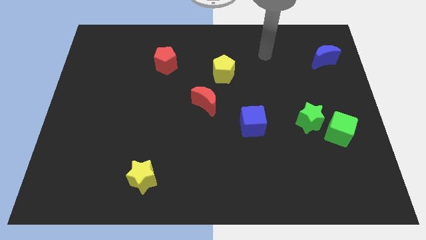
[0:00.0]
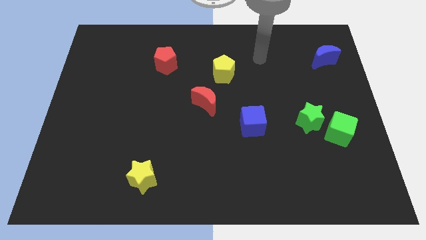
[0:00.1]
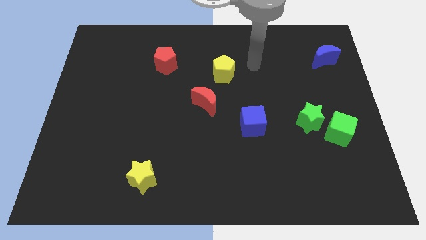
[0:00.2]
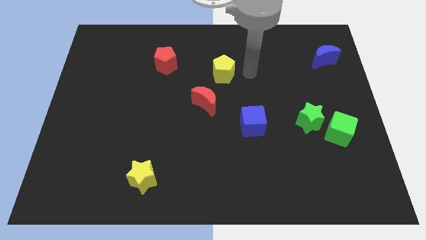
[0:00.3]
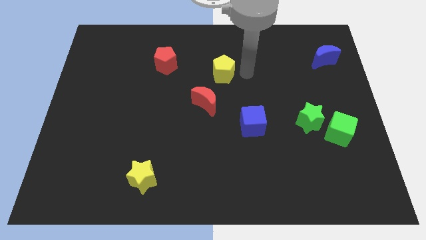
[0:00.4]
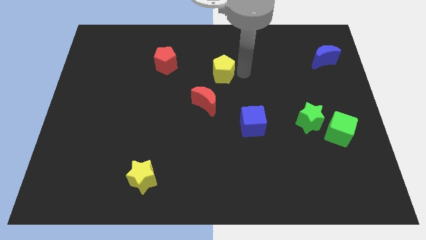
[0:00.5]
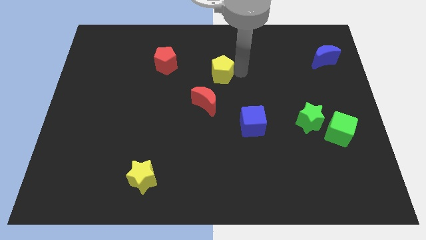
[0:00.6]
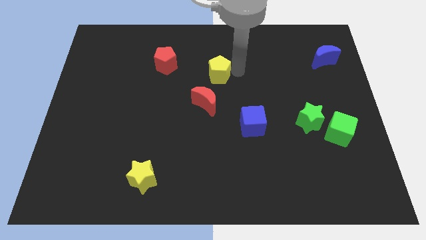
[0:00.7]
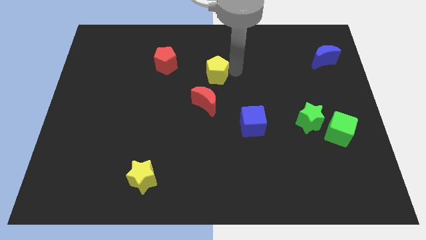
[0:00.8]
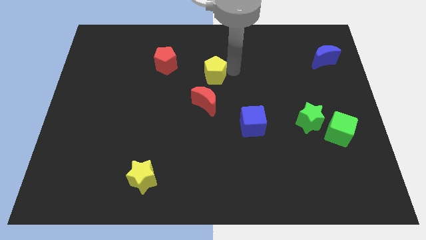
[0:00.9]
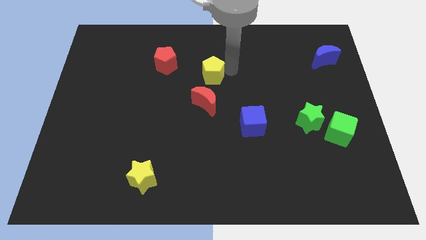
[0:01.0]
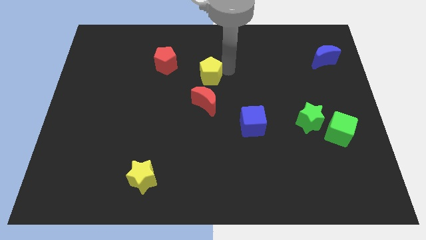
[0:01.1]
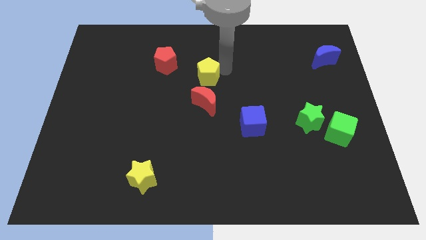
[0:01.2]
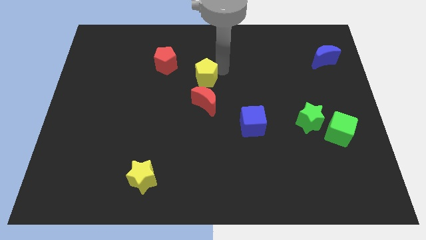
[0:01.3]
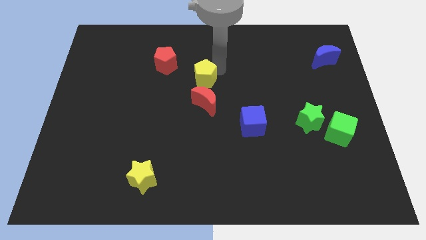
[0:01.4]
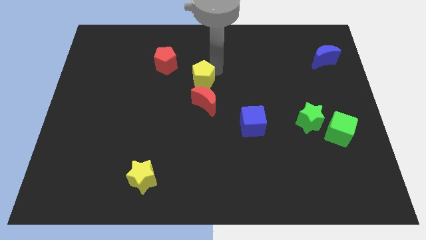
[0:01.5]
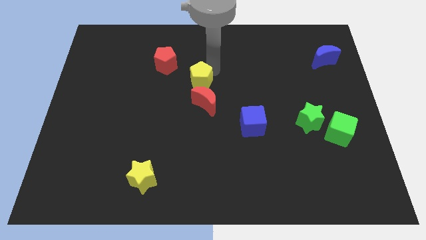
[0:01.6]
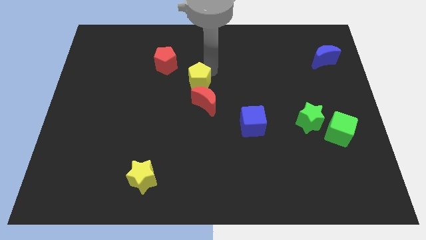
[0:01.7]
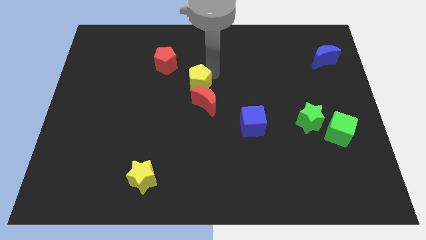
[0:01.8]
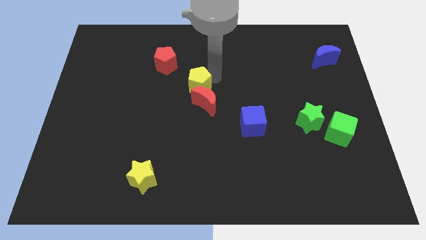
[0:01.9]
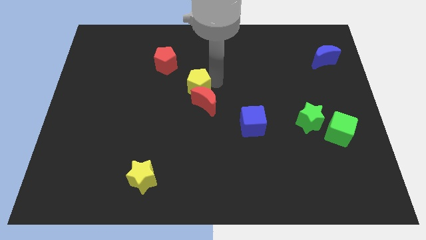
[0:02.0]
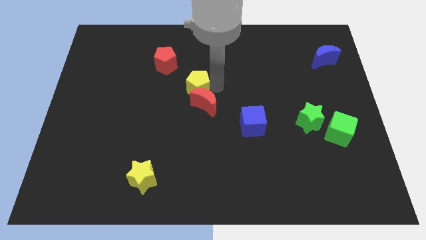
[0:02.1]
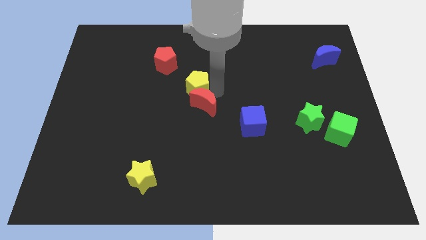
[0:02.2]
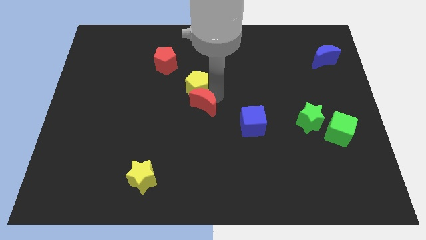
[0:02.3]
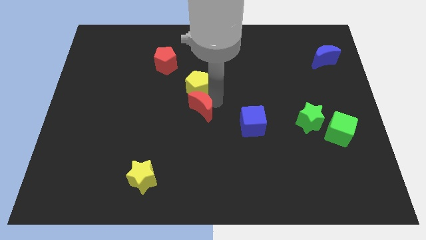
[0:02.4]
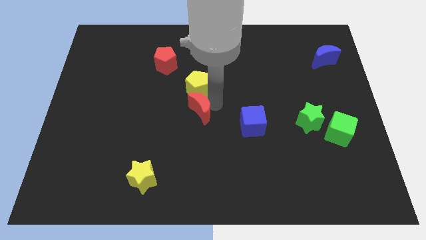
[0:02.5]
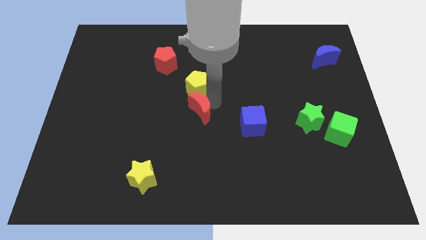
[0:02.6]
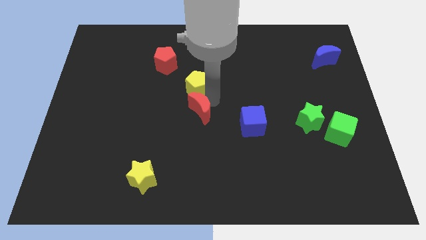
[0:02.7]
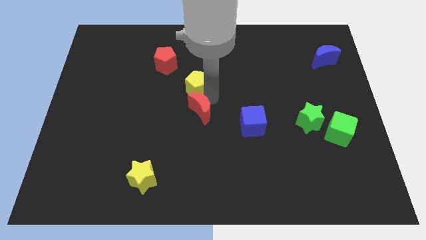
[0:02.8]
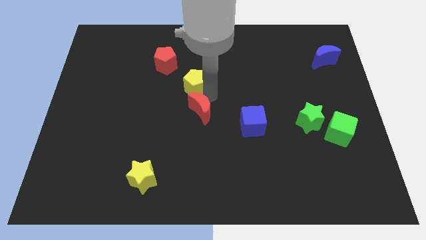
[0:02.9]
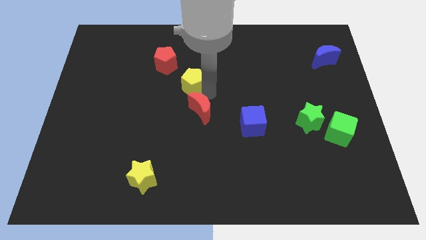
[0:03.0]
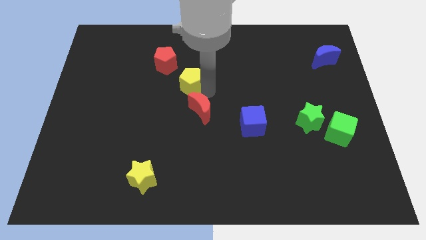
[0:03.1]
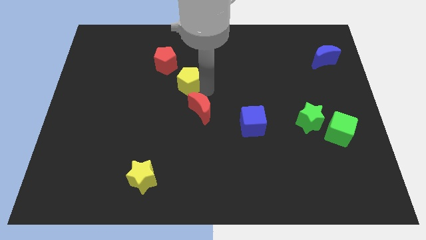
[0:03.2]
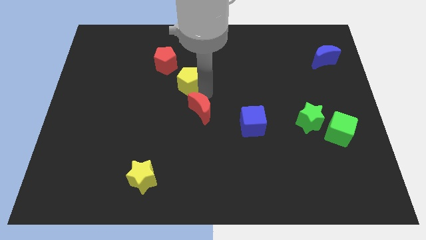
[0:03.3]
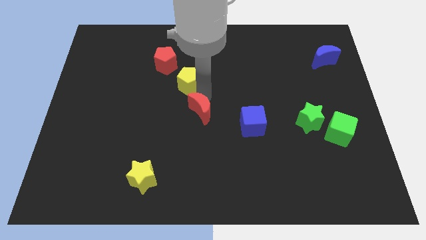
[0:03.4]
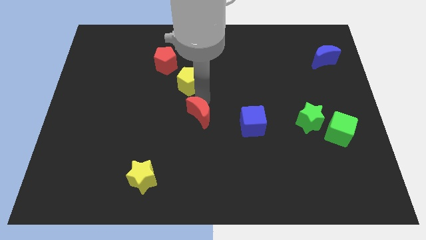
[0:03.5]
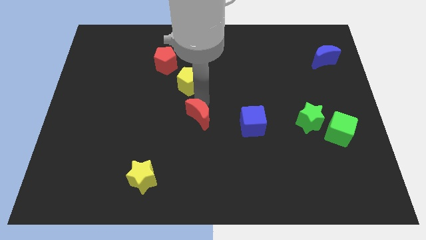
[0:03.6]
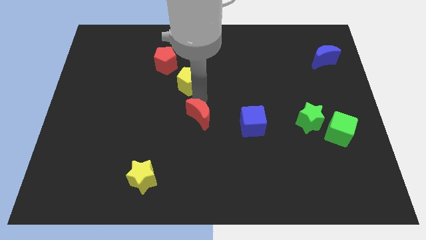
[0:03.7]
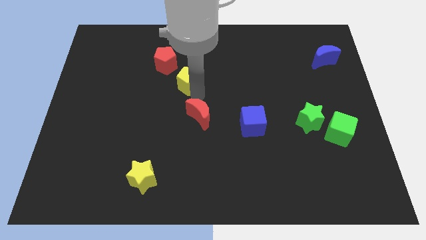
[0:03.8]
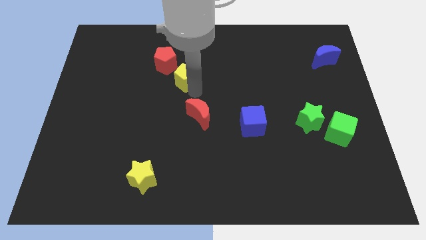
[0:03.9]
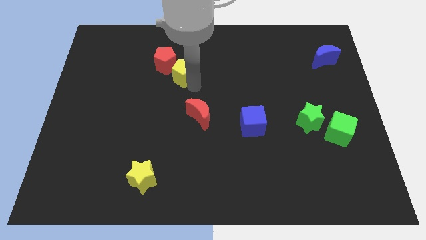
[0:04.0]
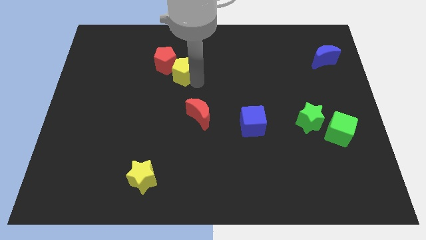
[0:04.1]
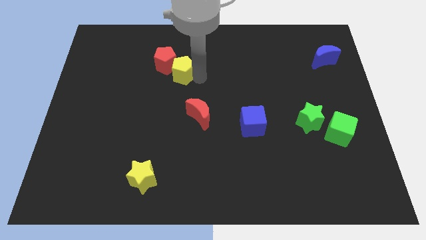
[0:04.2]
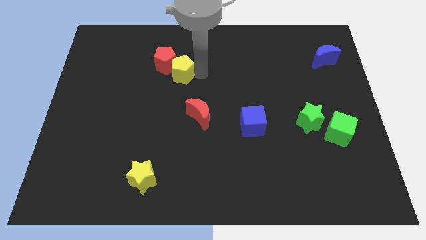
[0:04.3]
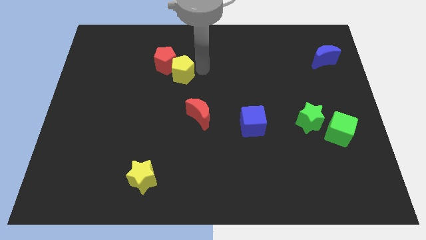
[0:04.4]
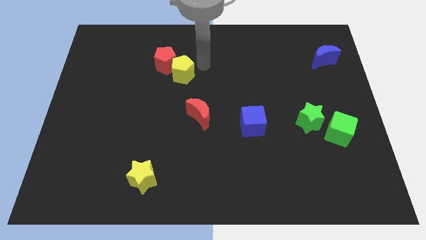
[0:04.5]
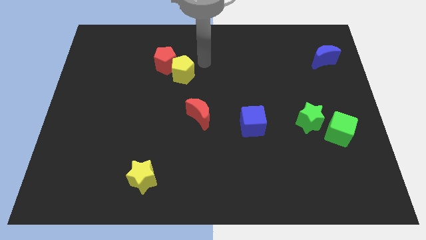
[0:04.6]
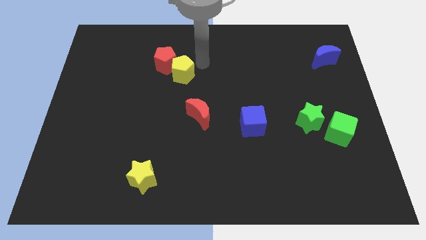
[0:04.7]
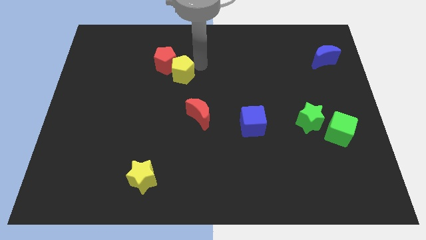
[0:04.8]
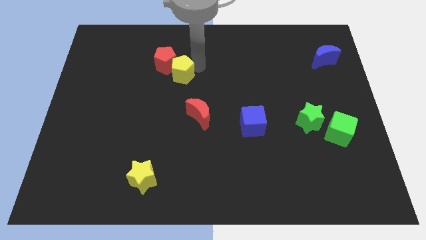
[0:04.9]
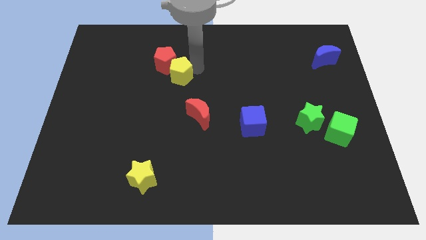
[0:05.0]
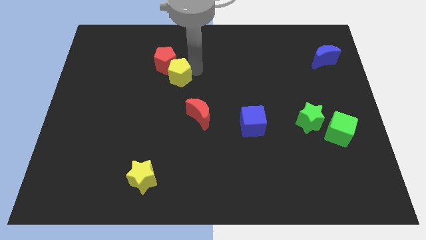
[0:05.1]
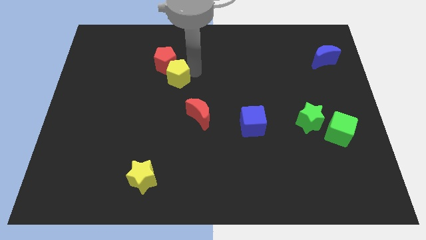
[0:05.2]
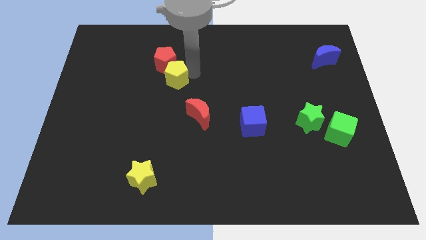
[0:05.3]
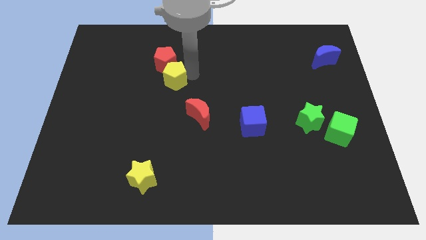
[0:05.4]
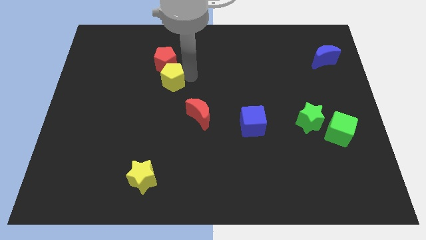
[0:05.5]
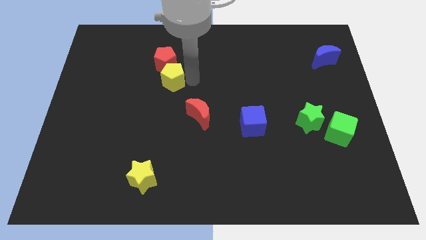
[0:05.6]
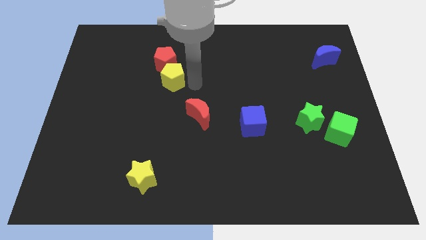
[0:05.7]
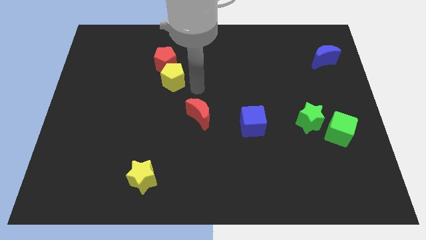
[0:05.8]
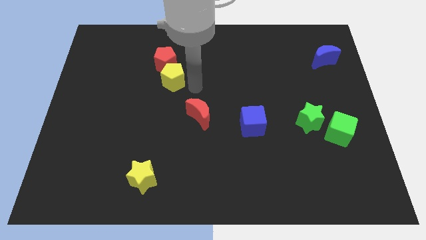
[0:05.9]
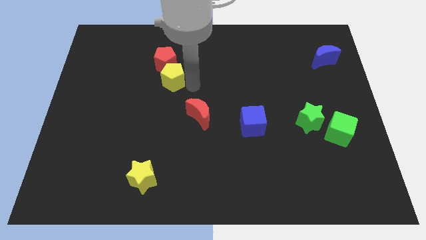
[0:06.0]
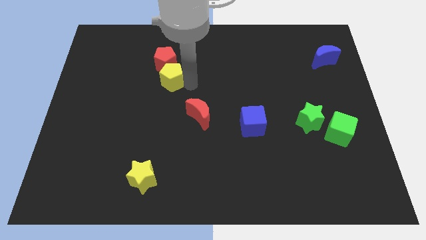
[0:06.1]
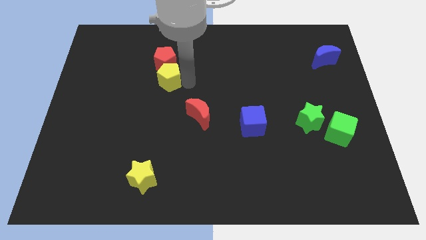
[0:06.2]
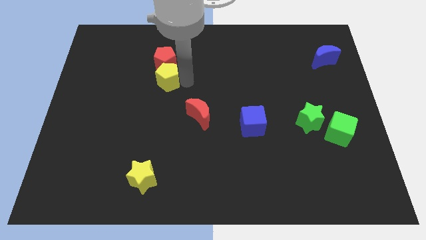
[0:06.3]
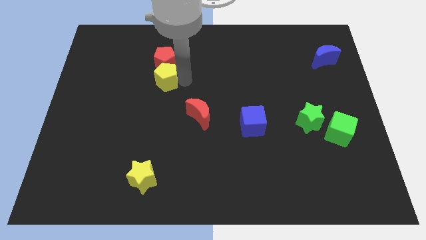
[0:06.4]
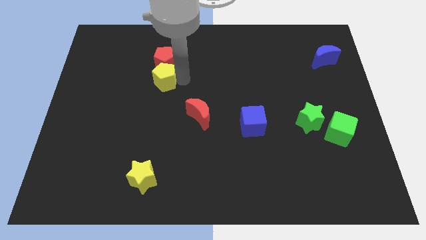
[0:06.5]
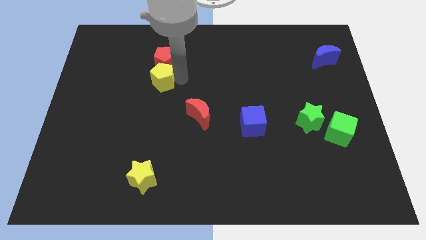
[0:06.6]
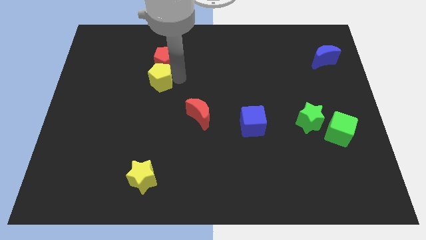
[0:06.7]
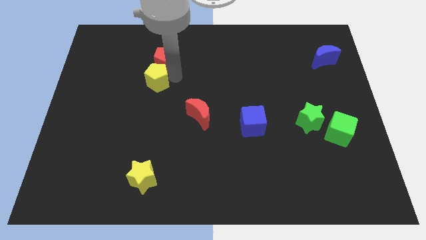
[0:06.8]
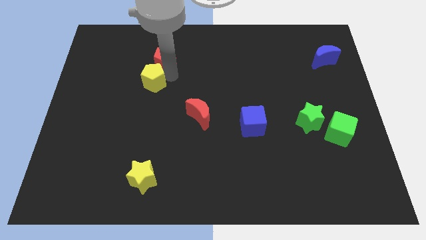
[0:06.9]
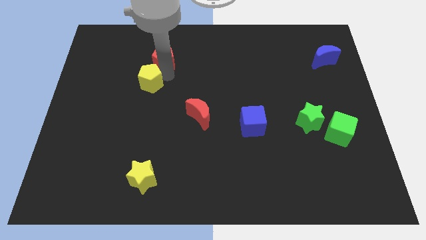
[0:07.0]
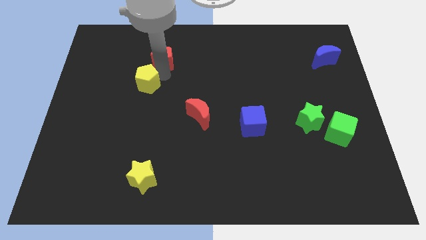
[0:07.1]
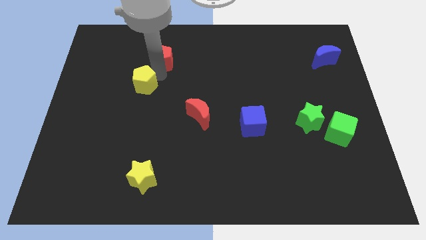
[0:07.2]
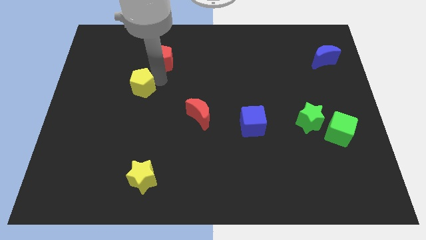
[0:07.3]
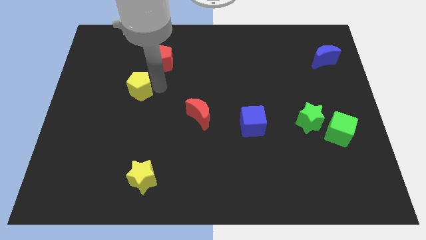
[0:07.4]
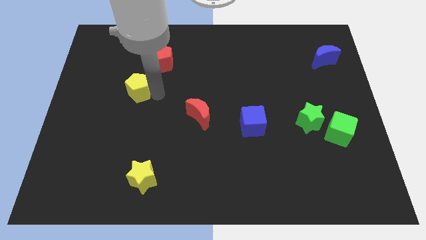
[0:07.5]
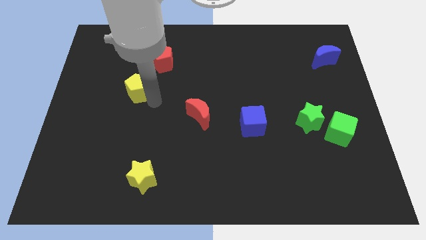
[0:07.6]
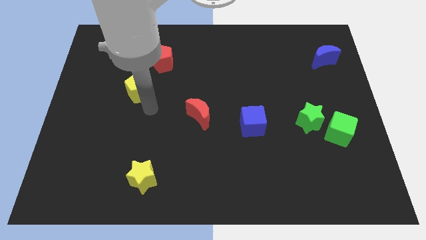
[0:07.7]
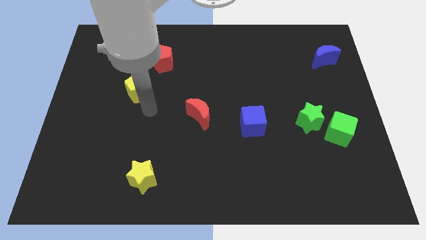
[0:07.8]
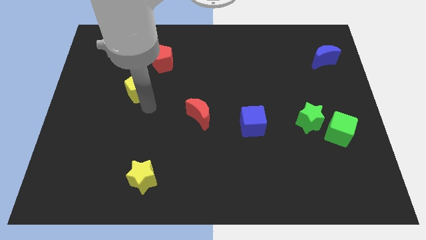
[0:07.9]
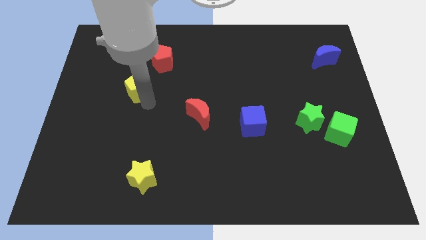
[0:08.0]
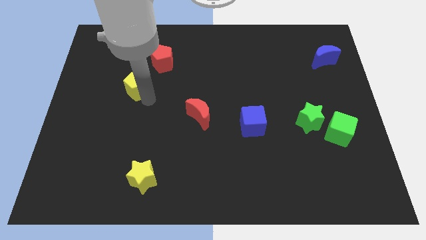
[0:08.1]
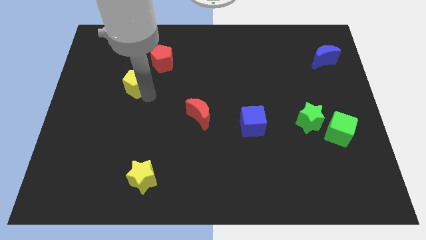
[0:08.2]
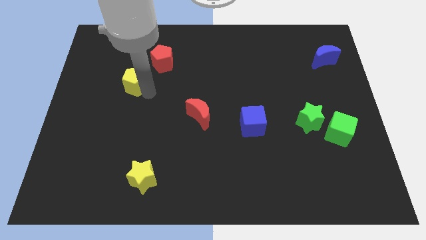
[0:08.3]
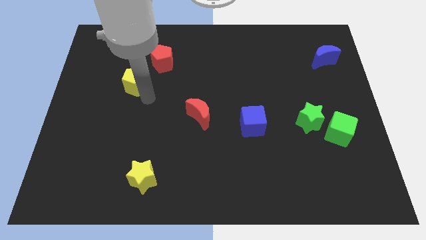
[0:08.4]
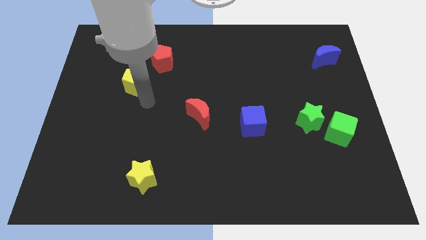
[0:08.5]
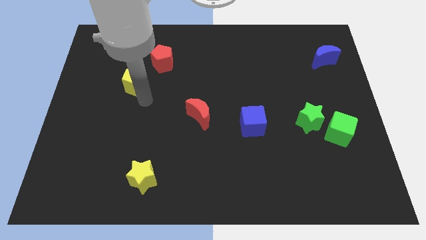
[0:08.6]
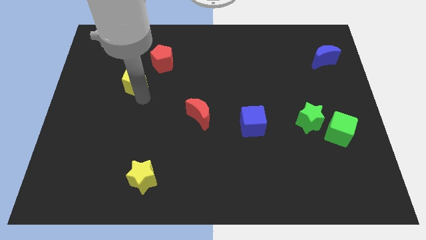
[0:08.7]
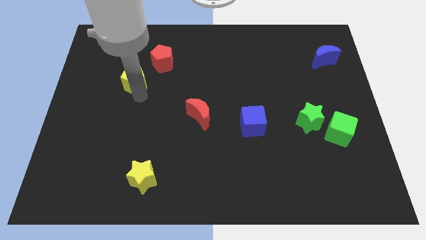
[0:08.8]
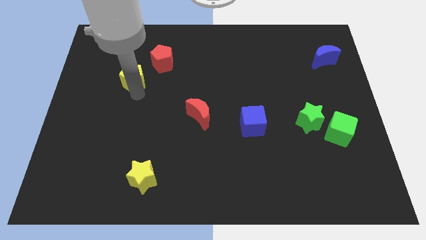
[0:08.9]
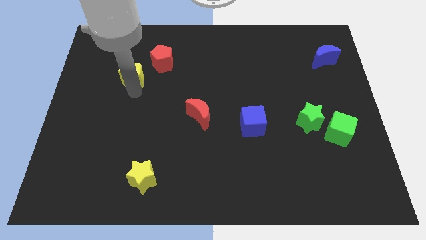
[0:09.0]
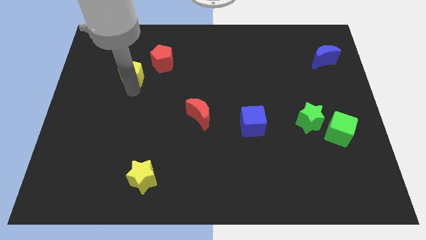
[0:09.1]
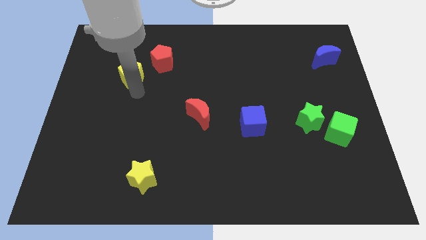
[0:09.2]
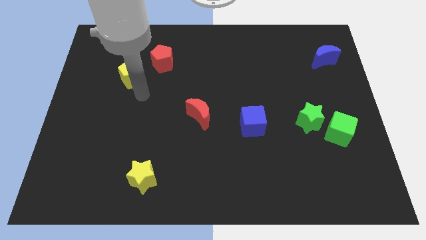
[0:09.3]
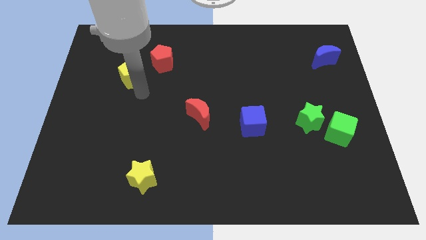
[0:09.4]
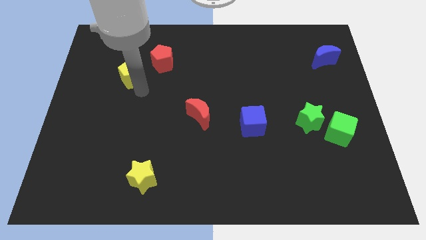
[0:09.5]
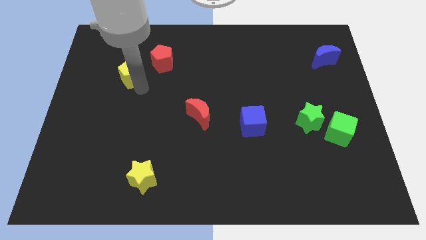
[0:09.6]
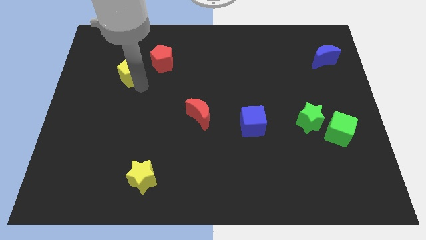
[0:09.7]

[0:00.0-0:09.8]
put the yellow pentagon to the left side of the red pentagon
